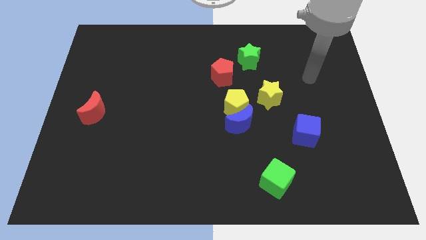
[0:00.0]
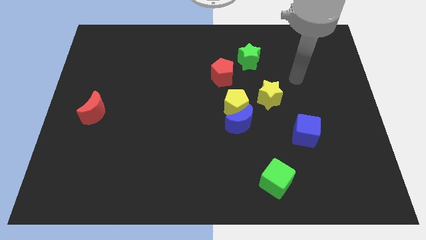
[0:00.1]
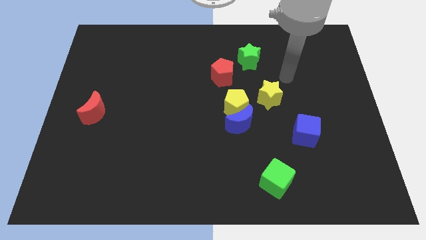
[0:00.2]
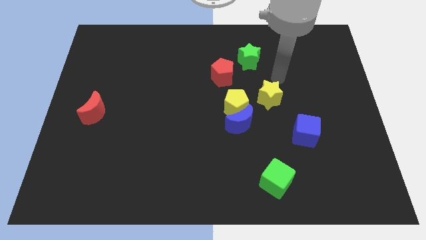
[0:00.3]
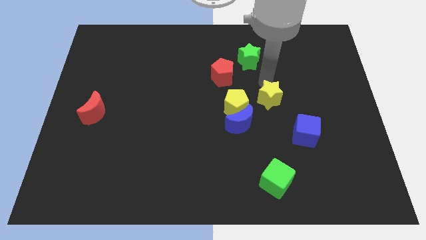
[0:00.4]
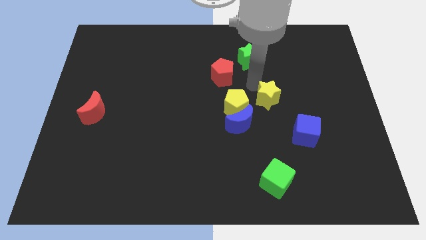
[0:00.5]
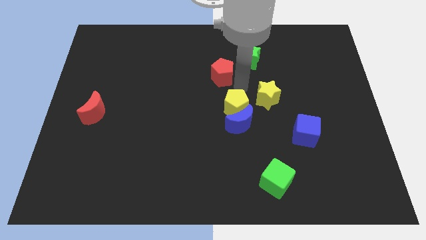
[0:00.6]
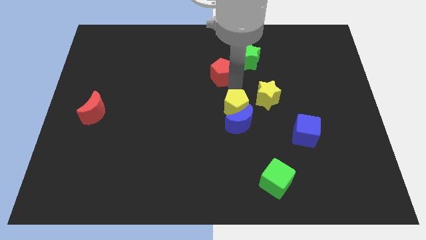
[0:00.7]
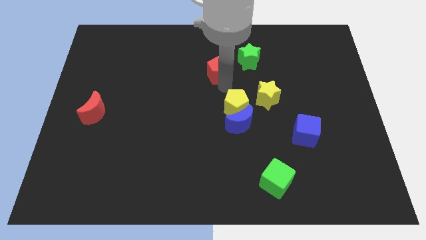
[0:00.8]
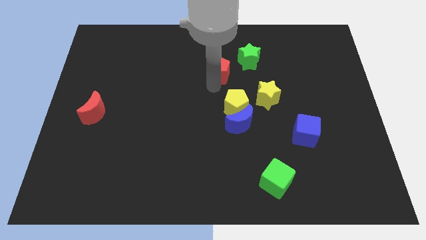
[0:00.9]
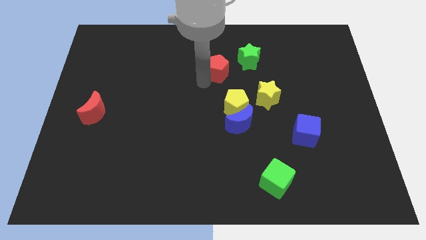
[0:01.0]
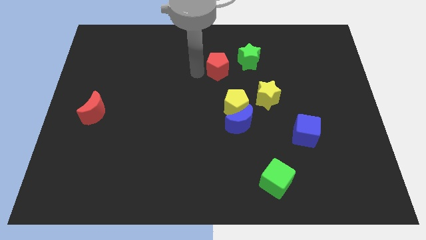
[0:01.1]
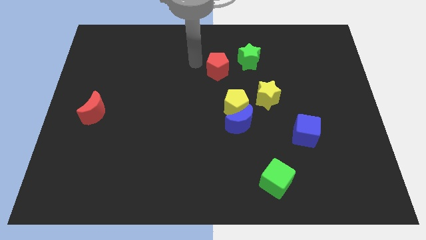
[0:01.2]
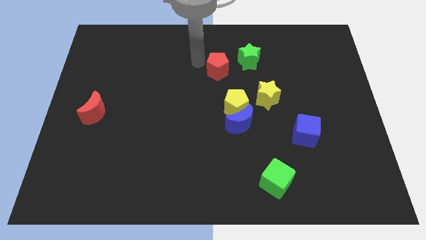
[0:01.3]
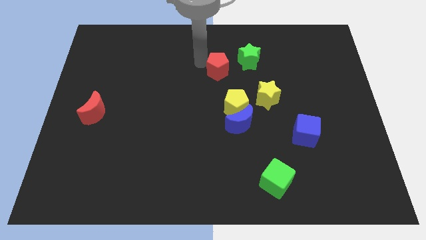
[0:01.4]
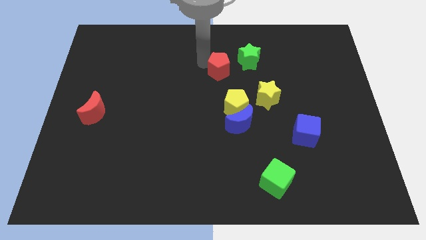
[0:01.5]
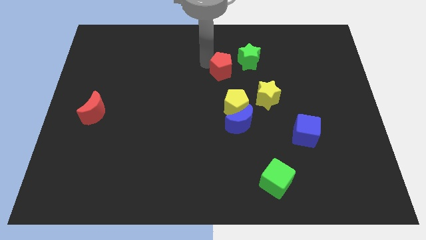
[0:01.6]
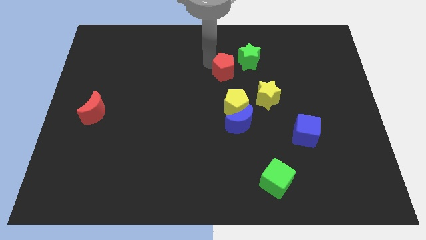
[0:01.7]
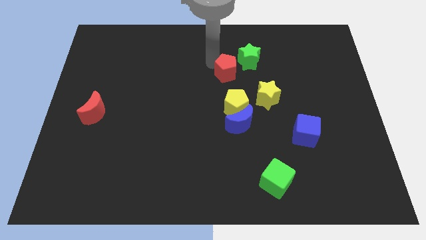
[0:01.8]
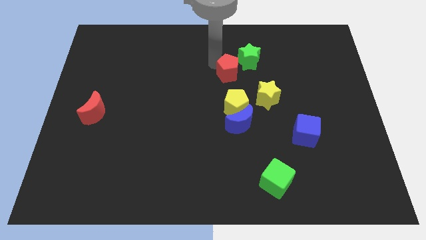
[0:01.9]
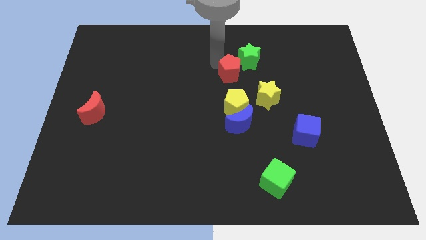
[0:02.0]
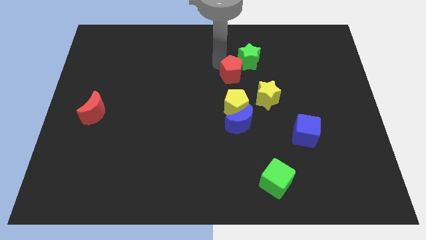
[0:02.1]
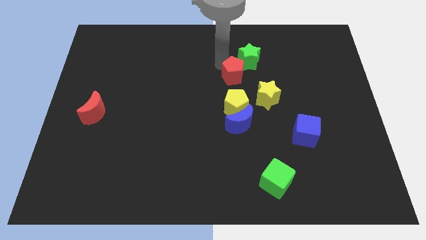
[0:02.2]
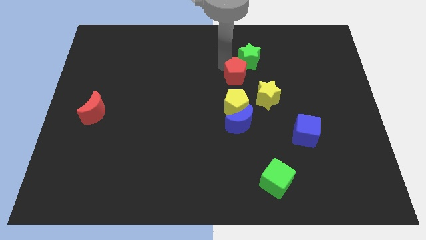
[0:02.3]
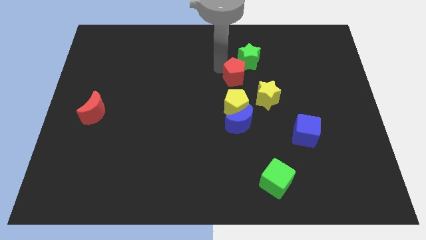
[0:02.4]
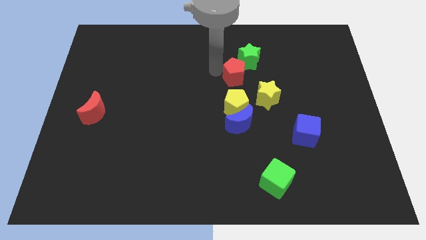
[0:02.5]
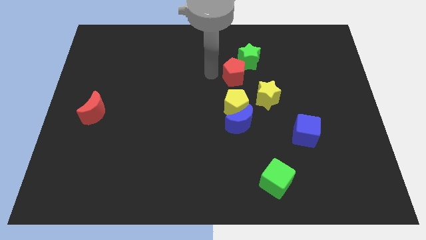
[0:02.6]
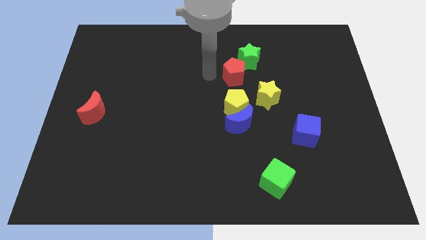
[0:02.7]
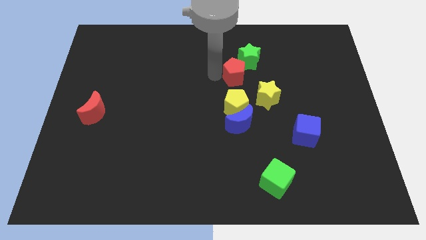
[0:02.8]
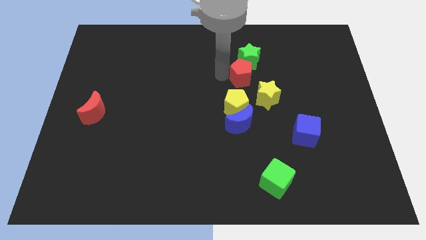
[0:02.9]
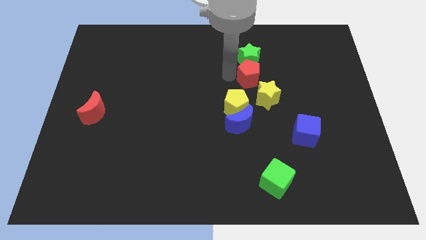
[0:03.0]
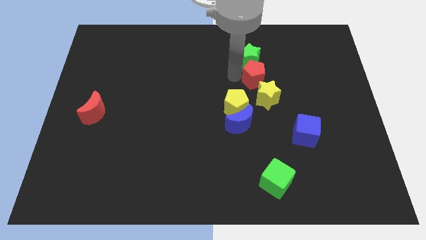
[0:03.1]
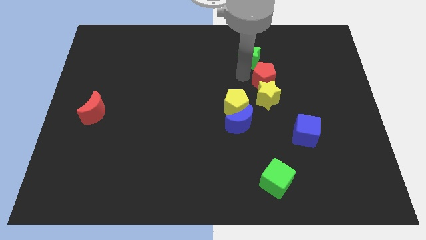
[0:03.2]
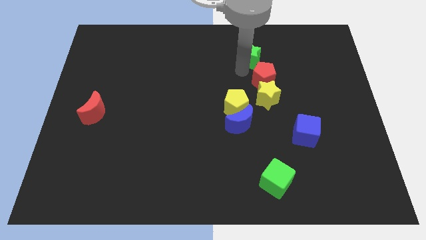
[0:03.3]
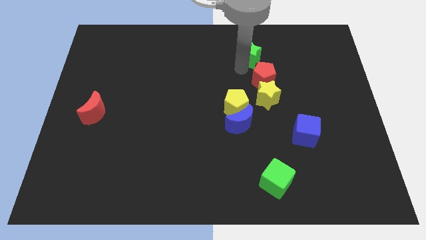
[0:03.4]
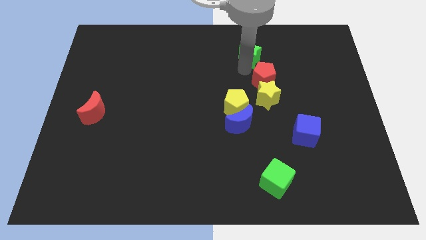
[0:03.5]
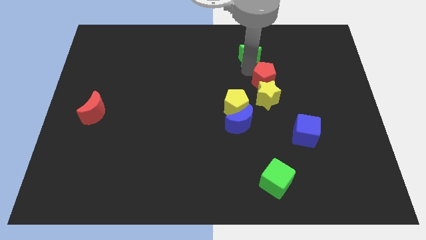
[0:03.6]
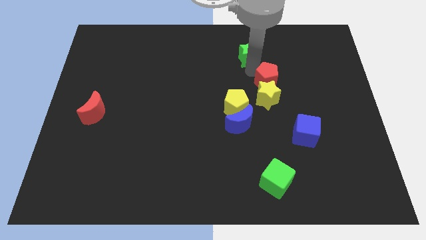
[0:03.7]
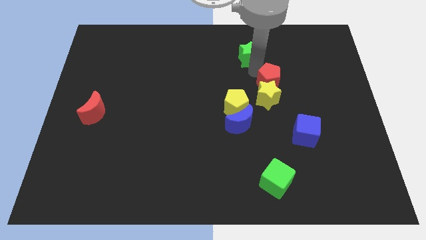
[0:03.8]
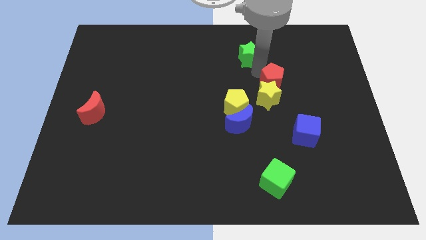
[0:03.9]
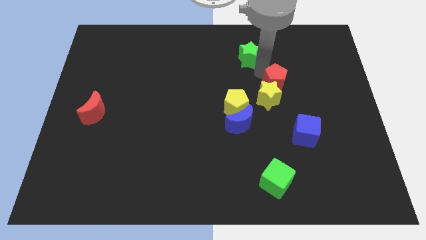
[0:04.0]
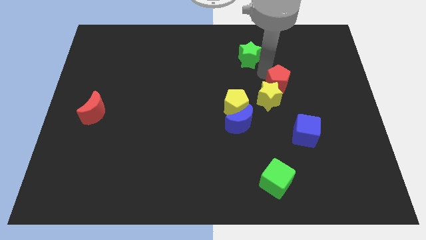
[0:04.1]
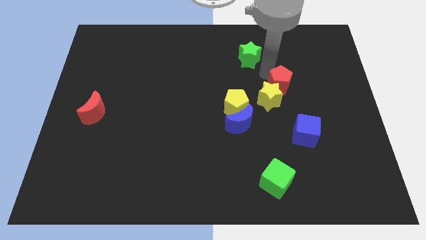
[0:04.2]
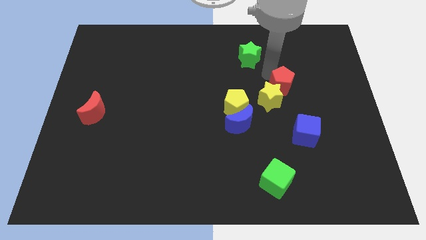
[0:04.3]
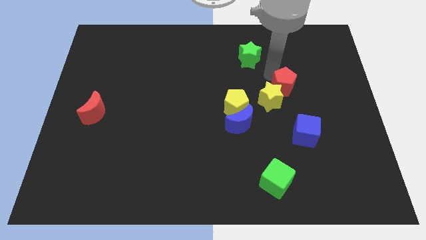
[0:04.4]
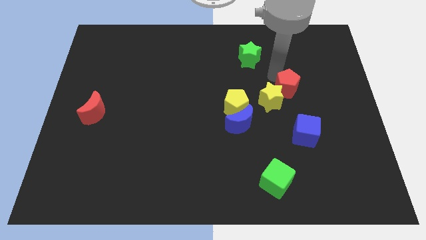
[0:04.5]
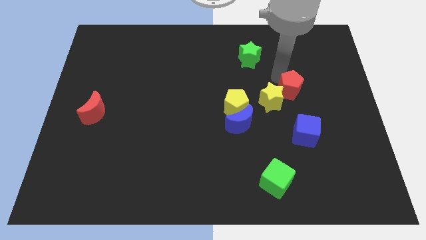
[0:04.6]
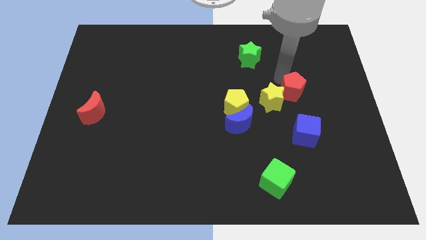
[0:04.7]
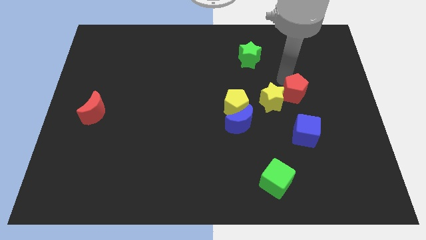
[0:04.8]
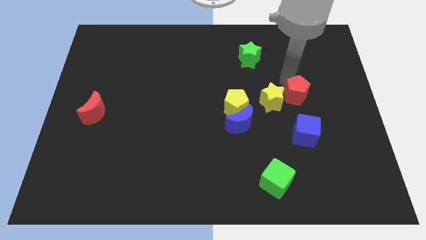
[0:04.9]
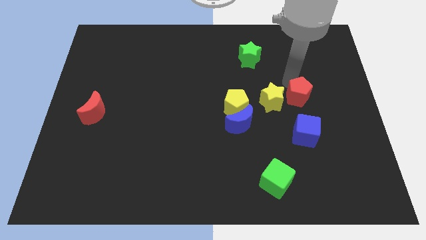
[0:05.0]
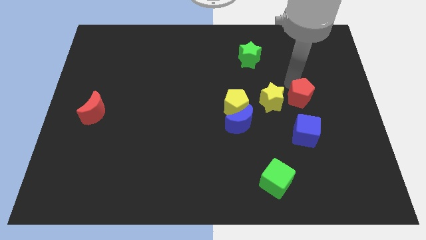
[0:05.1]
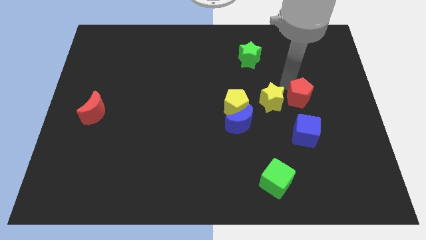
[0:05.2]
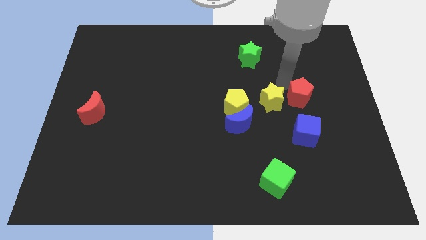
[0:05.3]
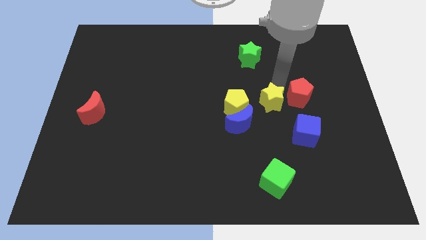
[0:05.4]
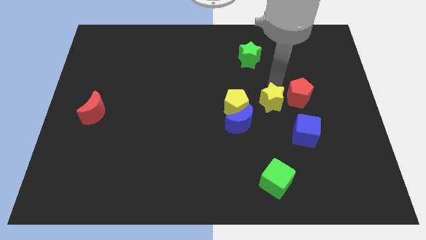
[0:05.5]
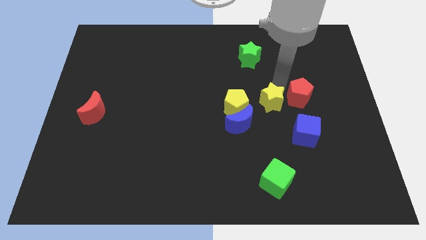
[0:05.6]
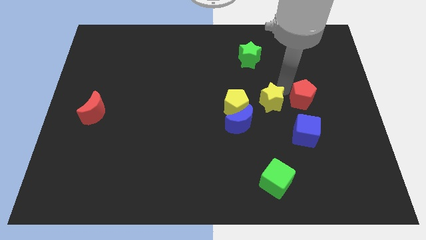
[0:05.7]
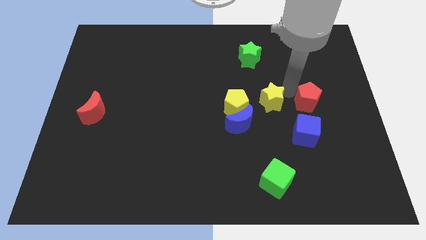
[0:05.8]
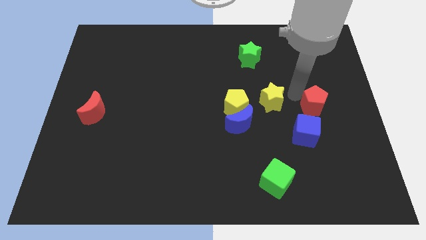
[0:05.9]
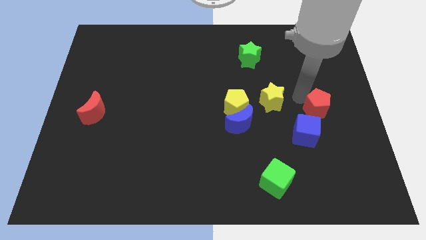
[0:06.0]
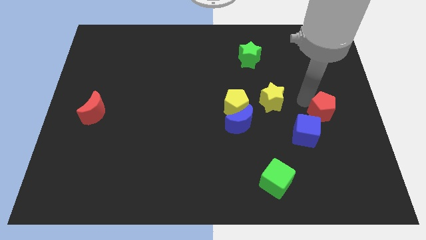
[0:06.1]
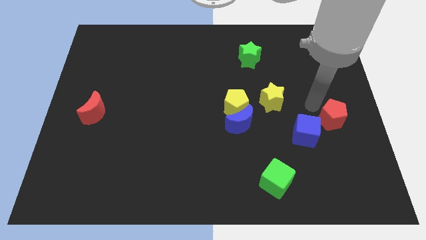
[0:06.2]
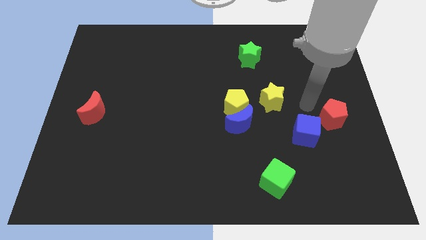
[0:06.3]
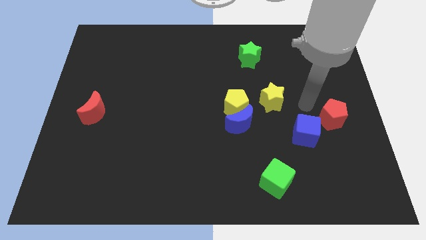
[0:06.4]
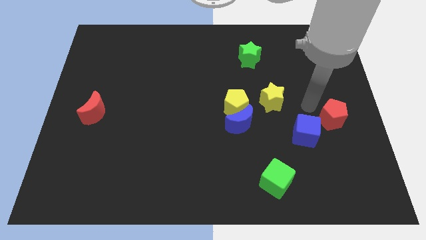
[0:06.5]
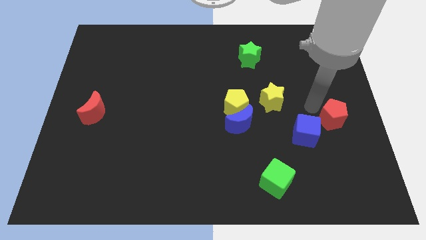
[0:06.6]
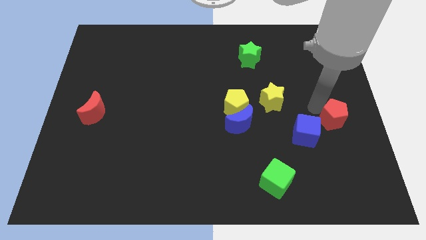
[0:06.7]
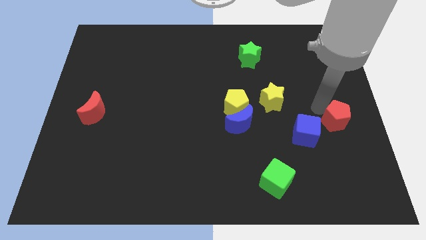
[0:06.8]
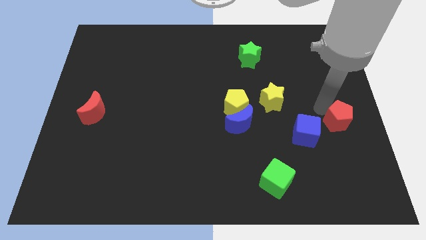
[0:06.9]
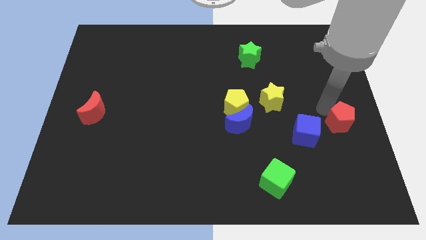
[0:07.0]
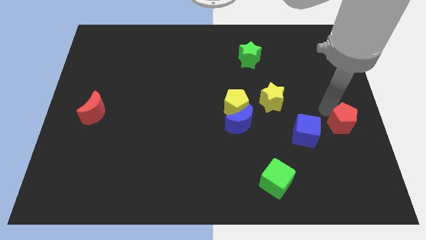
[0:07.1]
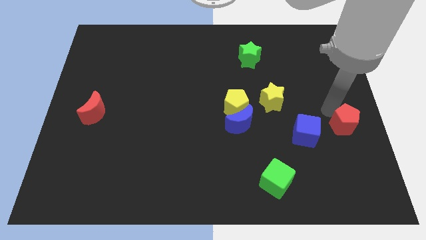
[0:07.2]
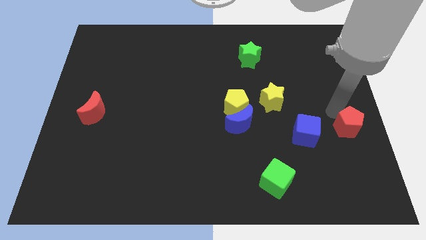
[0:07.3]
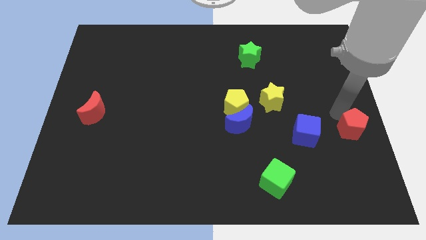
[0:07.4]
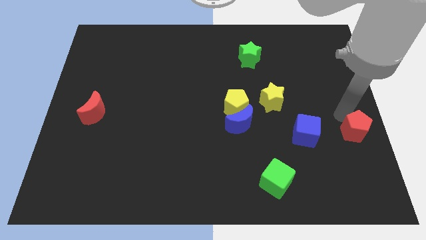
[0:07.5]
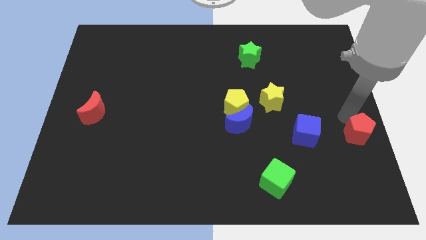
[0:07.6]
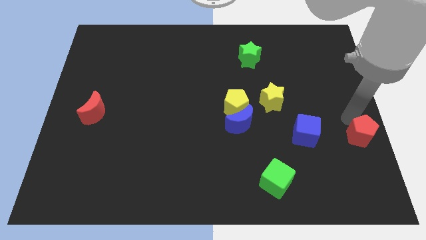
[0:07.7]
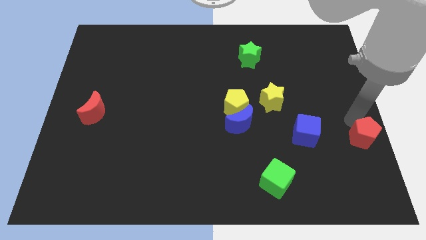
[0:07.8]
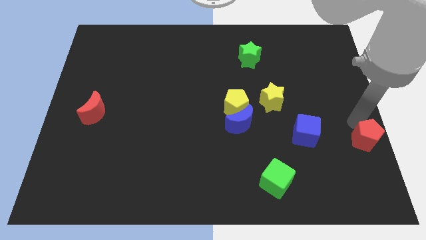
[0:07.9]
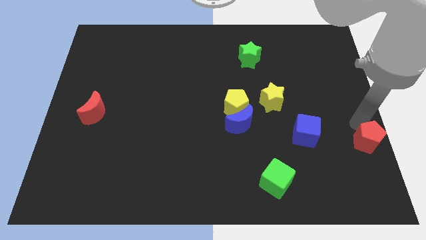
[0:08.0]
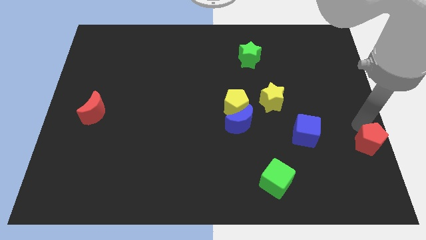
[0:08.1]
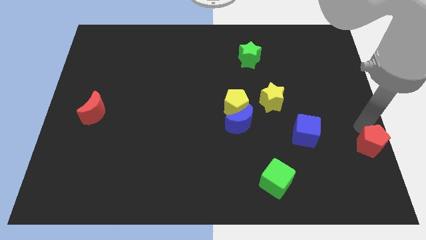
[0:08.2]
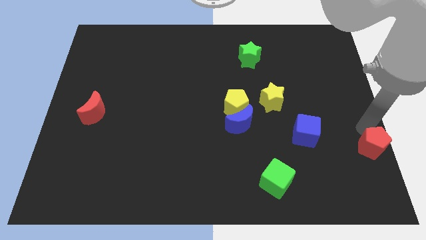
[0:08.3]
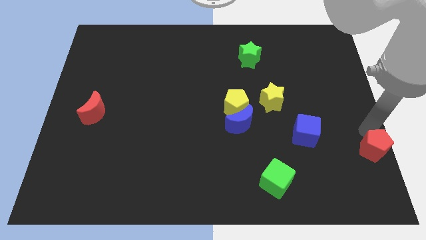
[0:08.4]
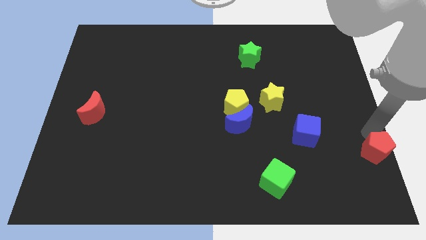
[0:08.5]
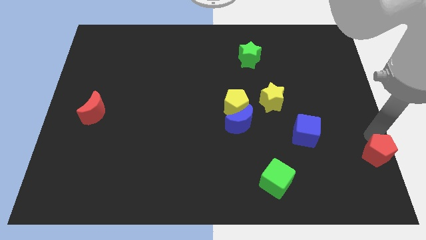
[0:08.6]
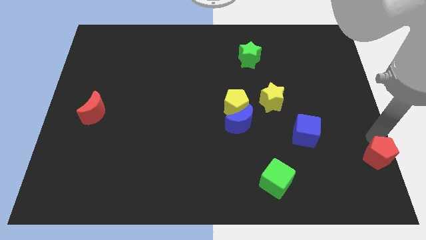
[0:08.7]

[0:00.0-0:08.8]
push the red pentagon to the bottom right corner
